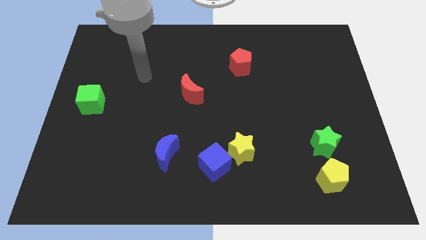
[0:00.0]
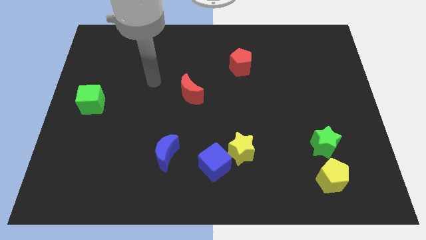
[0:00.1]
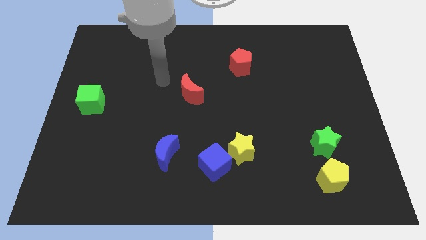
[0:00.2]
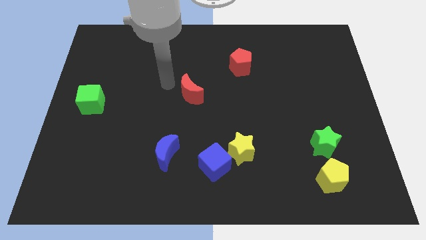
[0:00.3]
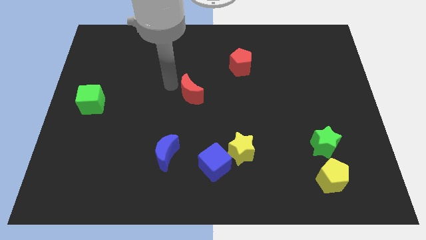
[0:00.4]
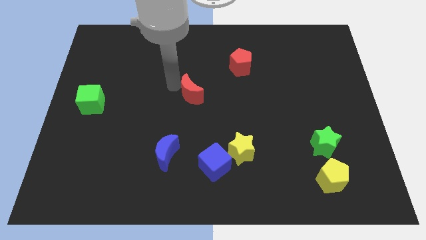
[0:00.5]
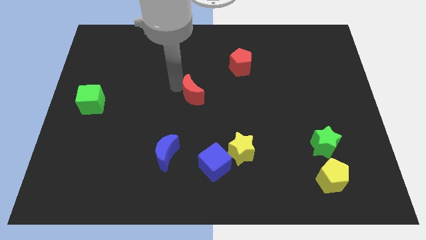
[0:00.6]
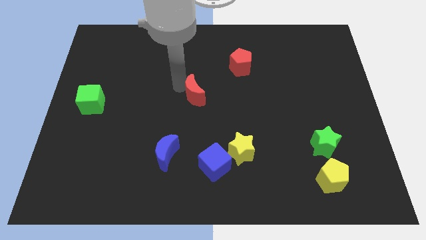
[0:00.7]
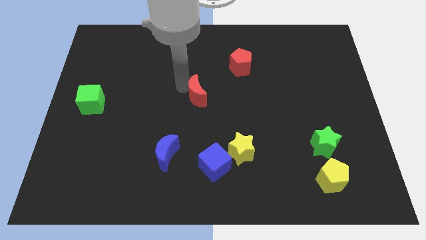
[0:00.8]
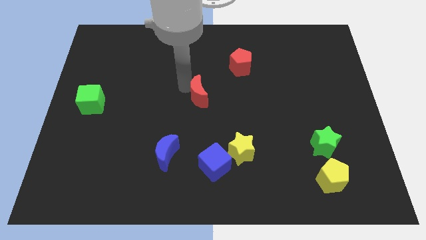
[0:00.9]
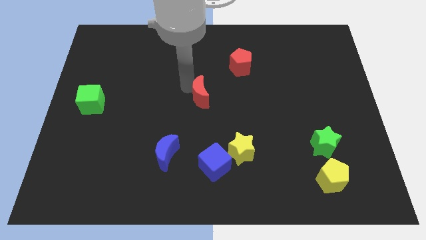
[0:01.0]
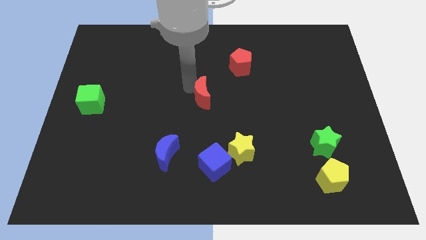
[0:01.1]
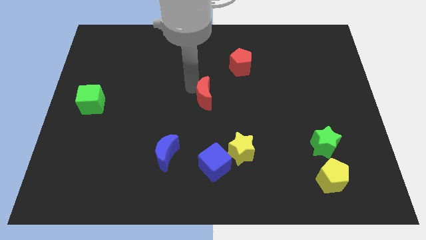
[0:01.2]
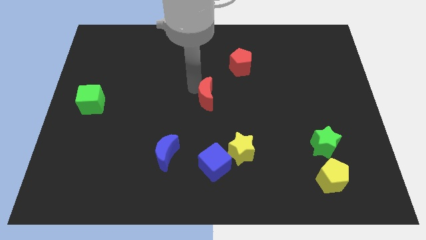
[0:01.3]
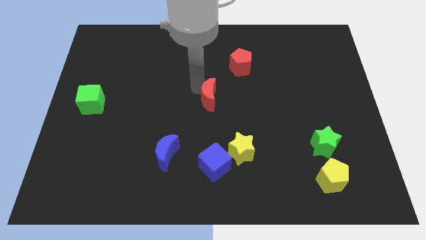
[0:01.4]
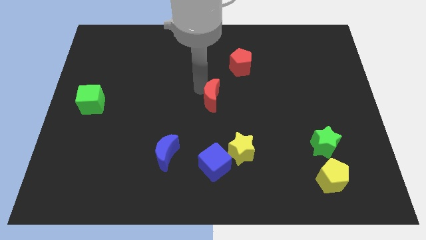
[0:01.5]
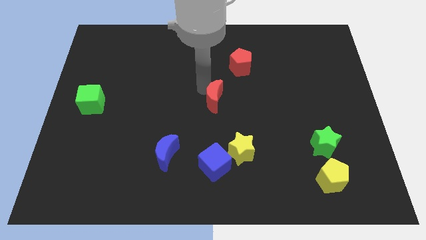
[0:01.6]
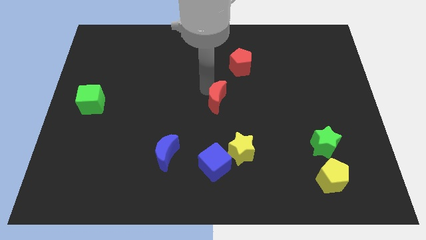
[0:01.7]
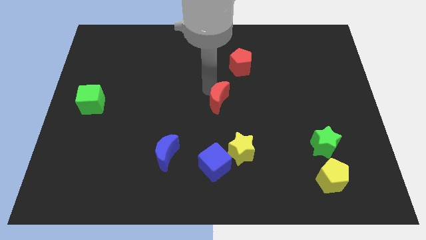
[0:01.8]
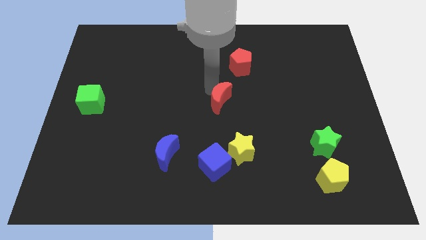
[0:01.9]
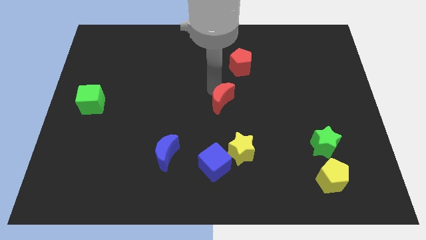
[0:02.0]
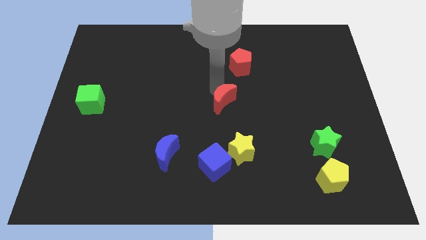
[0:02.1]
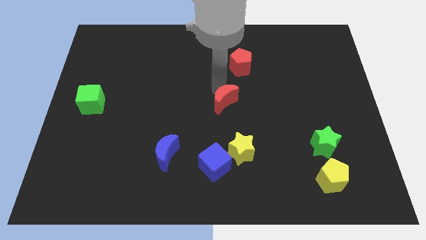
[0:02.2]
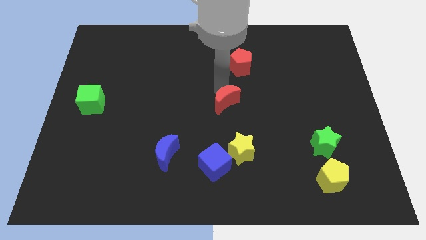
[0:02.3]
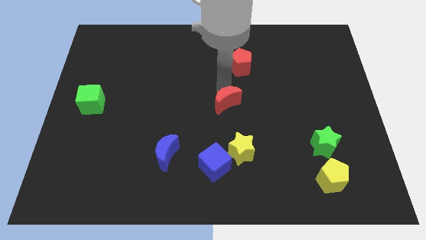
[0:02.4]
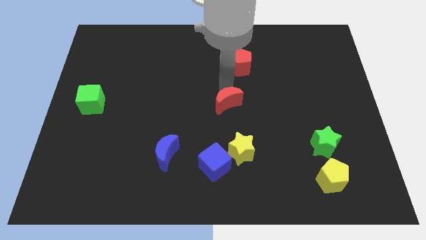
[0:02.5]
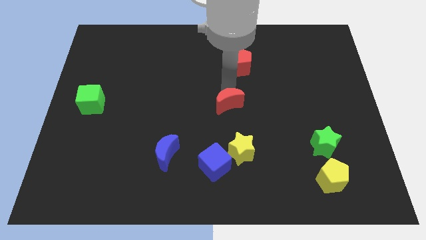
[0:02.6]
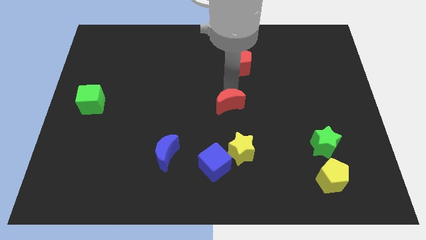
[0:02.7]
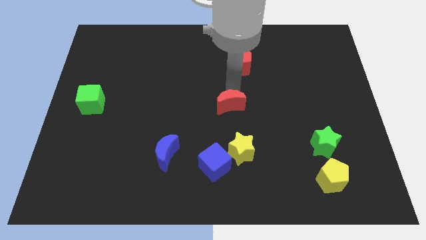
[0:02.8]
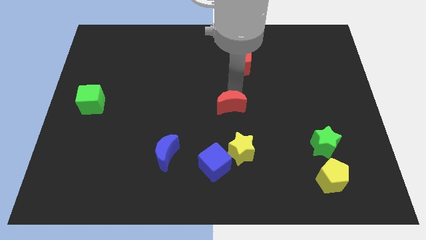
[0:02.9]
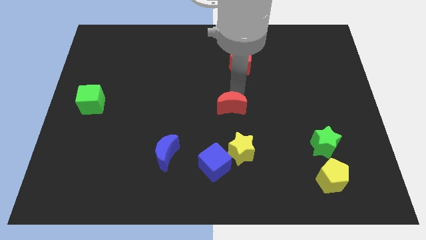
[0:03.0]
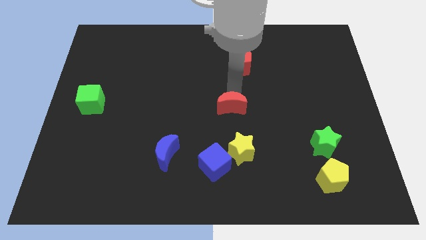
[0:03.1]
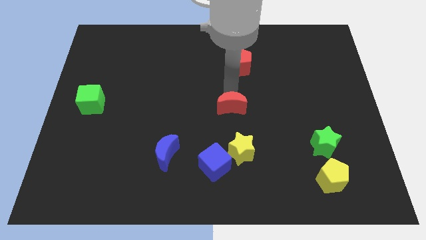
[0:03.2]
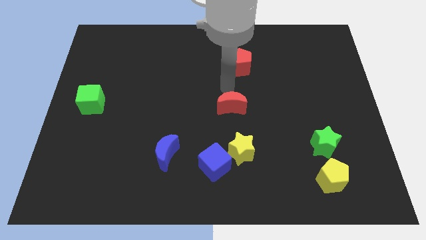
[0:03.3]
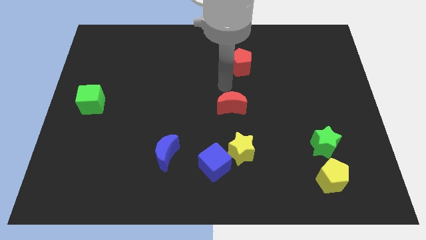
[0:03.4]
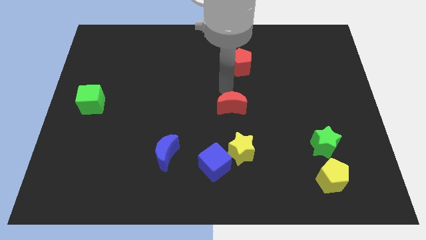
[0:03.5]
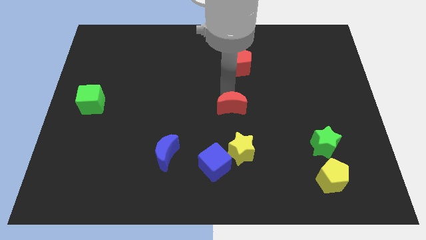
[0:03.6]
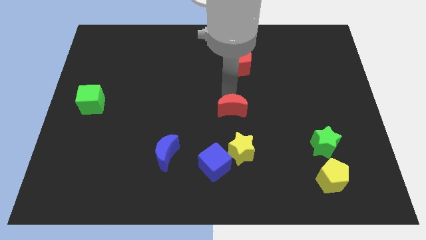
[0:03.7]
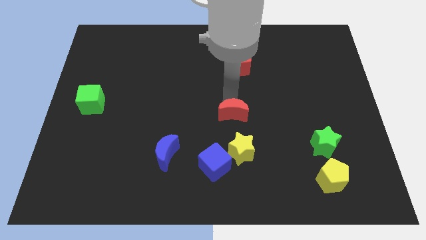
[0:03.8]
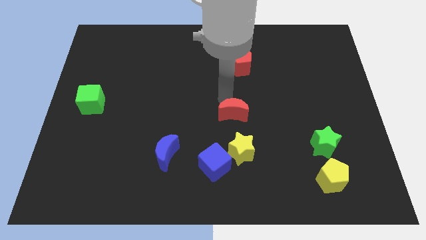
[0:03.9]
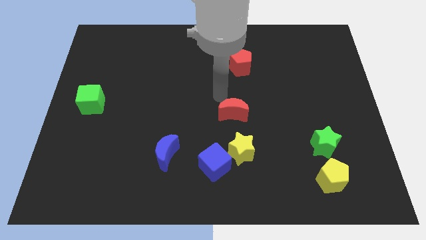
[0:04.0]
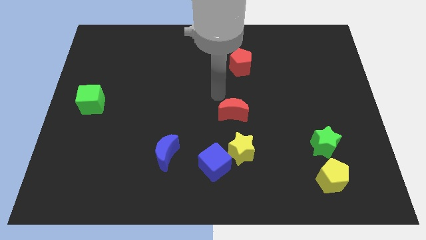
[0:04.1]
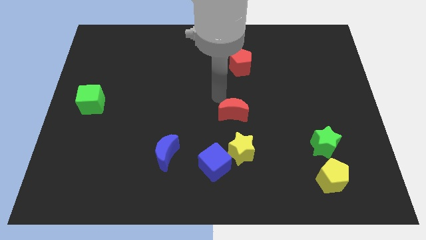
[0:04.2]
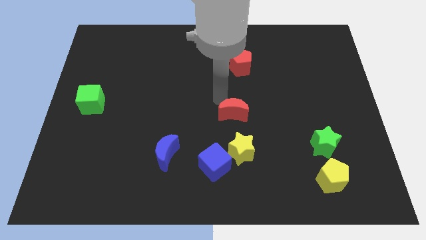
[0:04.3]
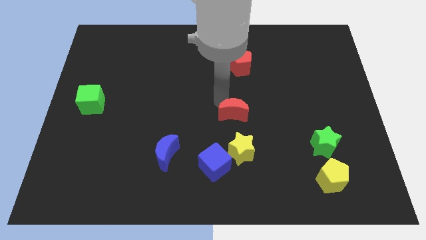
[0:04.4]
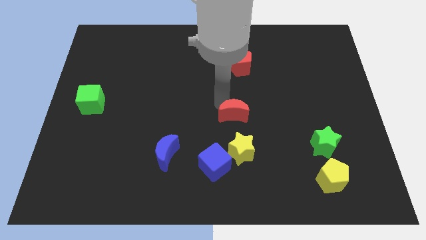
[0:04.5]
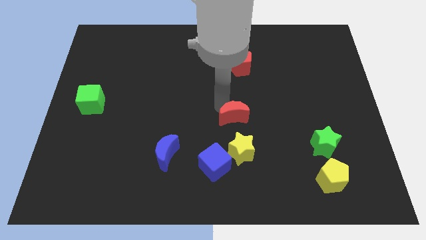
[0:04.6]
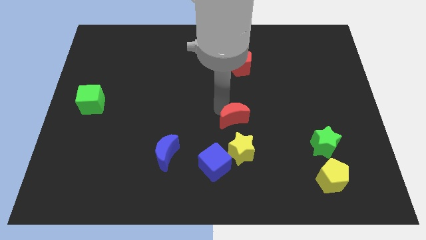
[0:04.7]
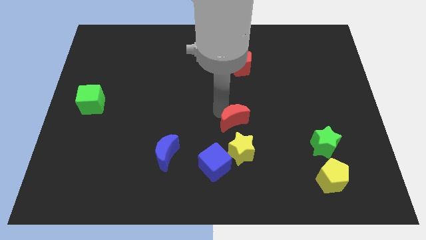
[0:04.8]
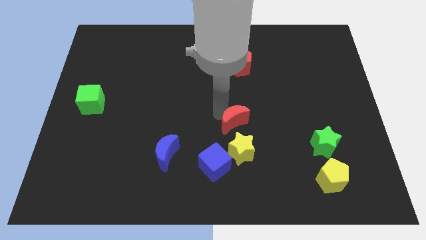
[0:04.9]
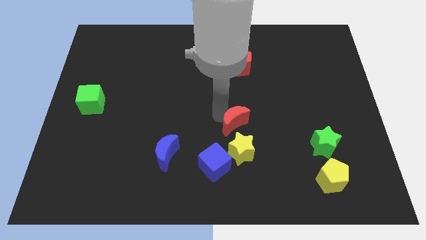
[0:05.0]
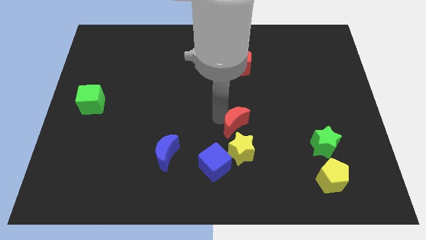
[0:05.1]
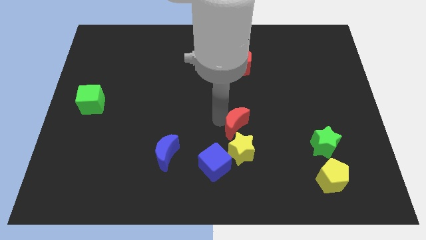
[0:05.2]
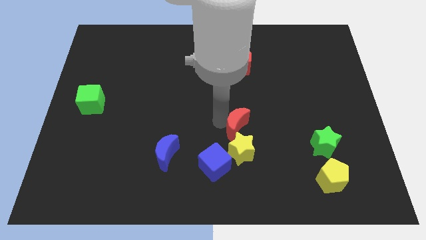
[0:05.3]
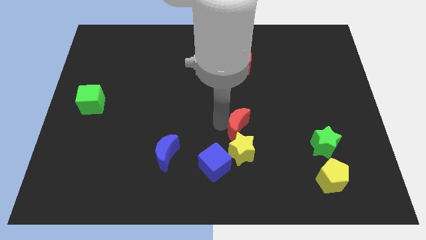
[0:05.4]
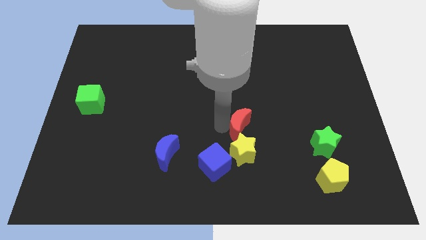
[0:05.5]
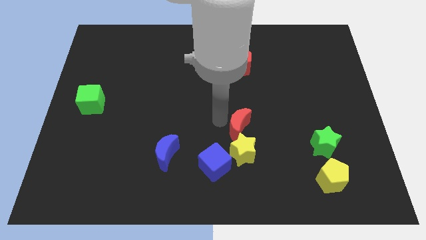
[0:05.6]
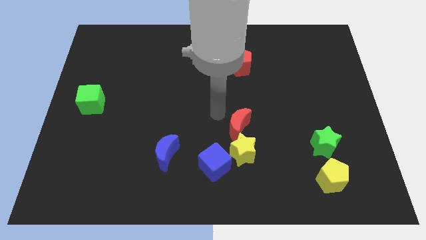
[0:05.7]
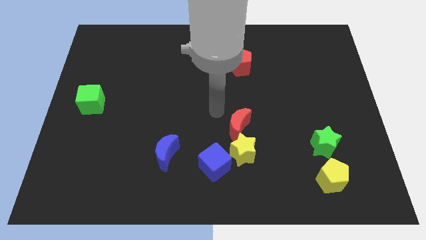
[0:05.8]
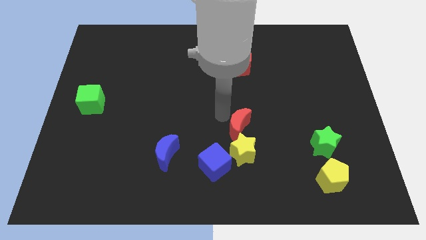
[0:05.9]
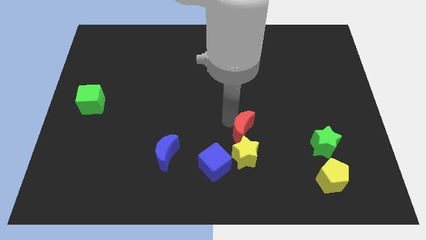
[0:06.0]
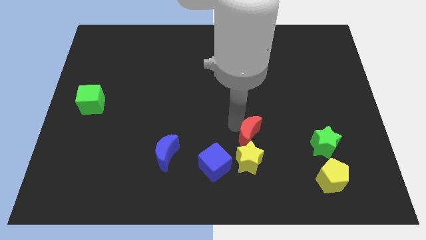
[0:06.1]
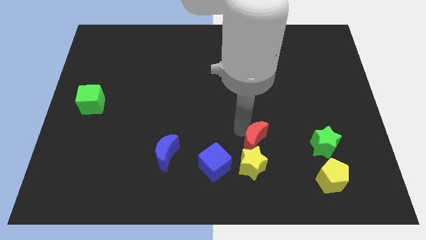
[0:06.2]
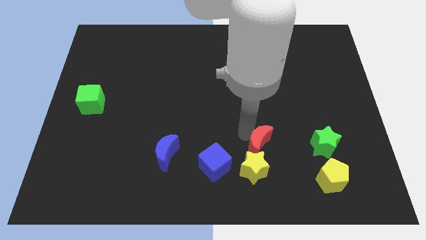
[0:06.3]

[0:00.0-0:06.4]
push the red moon diagonally downwards and right

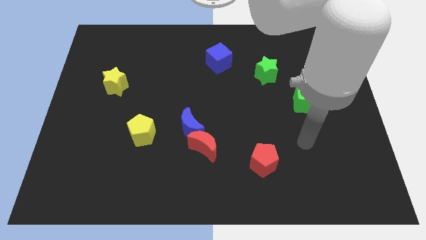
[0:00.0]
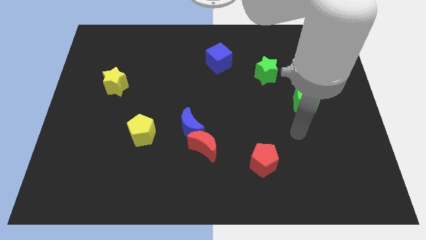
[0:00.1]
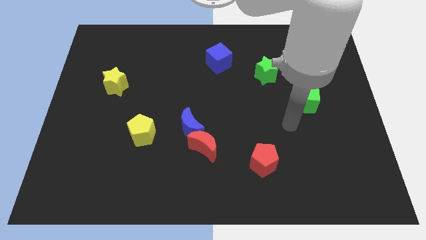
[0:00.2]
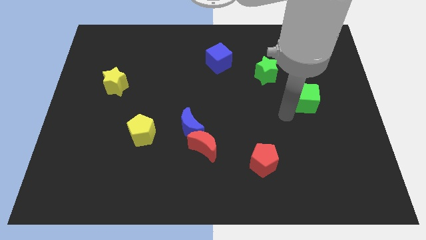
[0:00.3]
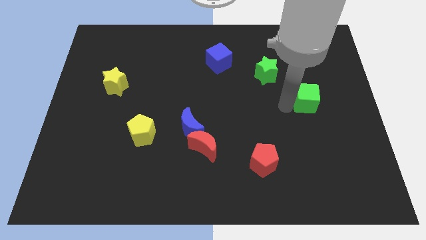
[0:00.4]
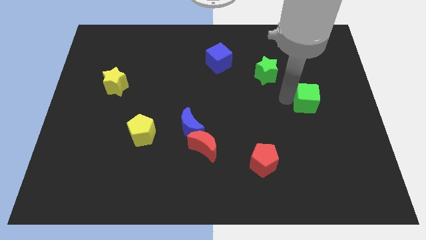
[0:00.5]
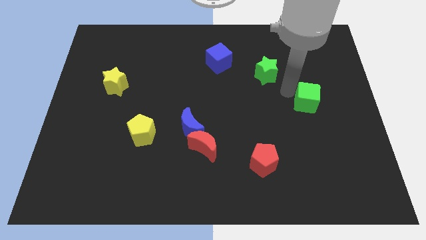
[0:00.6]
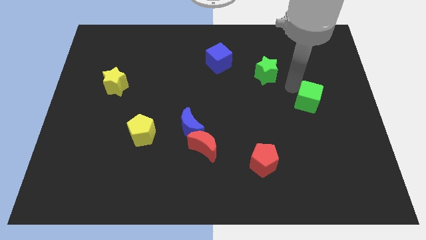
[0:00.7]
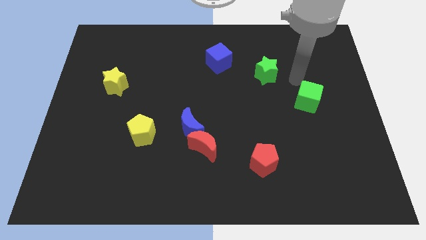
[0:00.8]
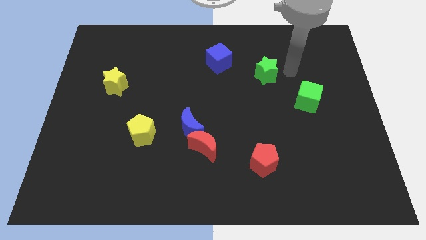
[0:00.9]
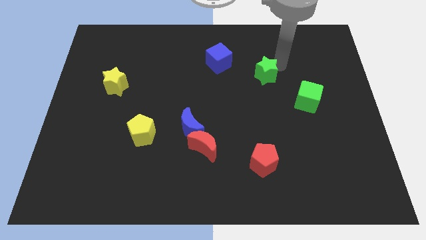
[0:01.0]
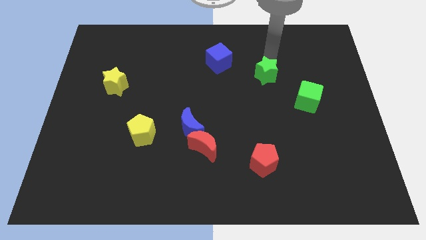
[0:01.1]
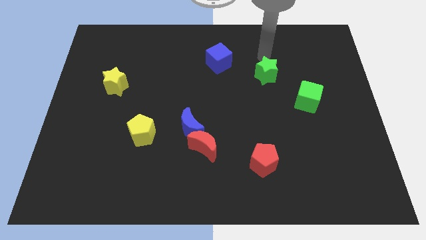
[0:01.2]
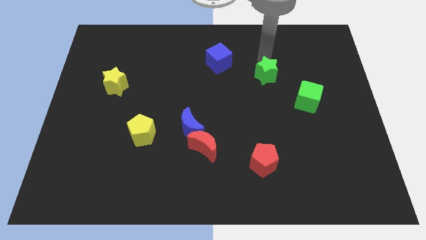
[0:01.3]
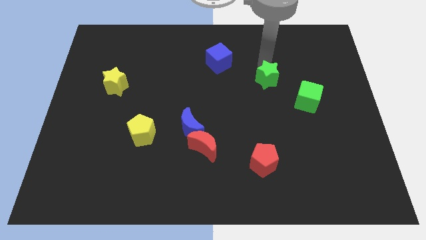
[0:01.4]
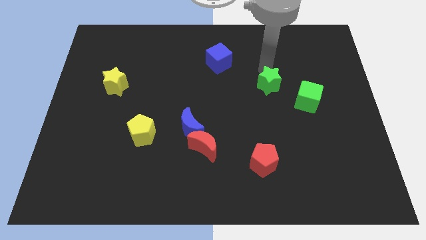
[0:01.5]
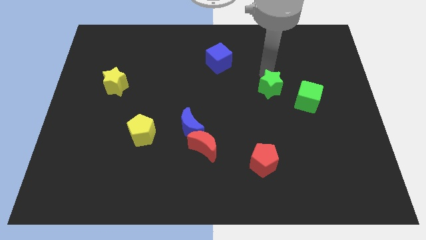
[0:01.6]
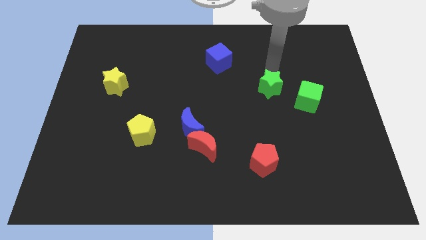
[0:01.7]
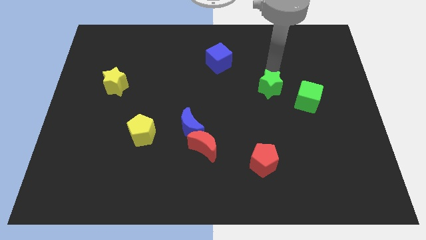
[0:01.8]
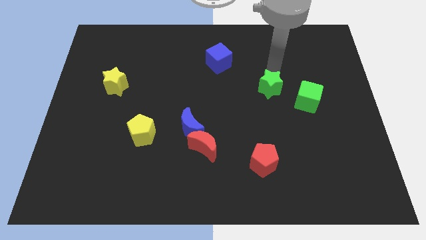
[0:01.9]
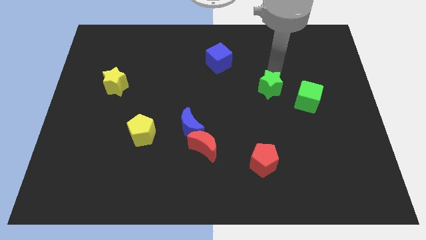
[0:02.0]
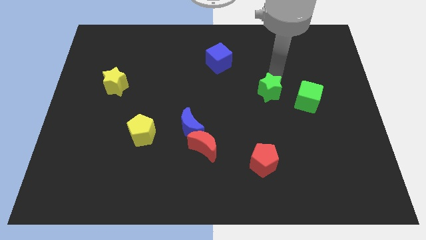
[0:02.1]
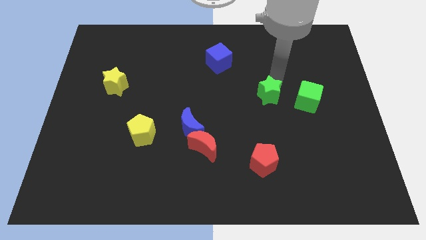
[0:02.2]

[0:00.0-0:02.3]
slightly push the green star down
